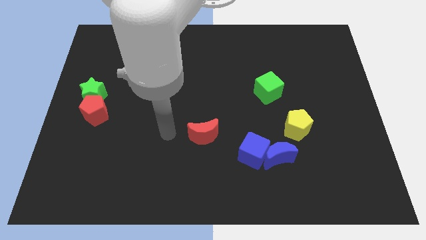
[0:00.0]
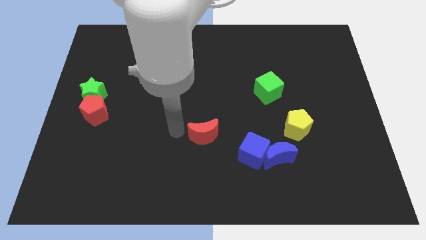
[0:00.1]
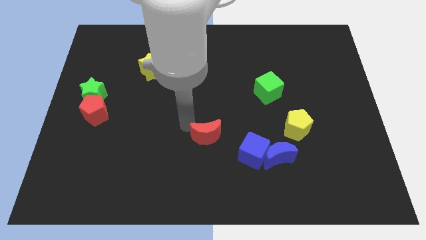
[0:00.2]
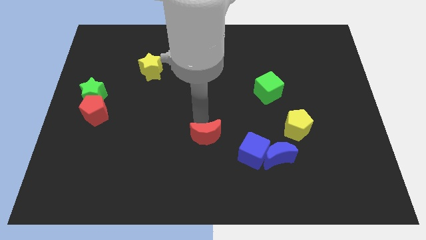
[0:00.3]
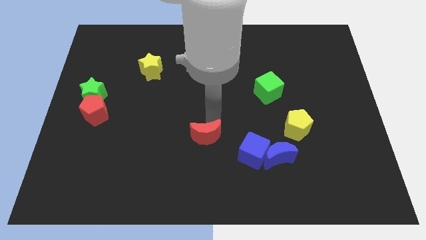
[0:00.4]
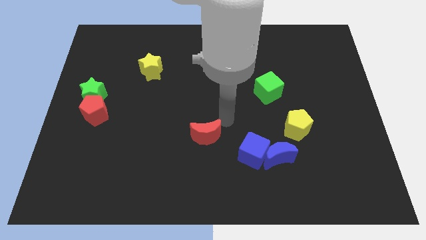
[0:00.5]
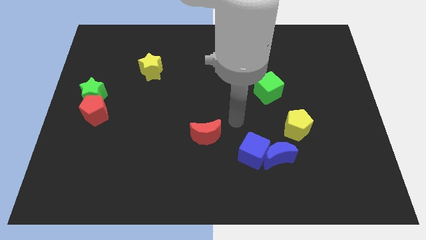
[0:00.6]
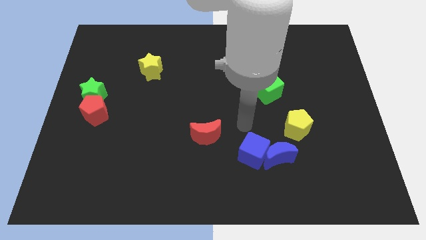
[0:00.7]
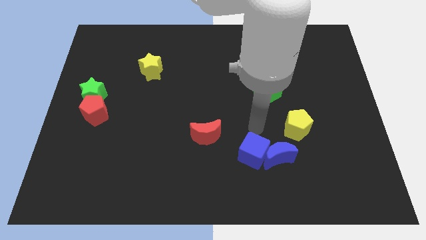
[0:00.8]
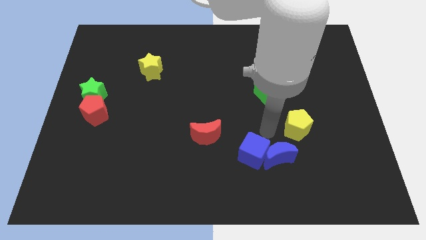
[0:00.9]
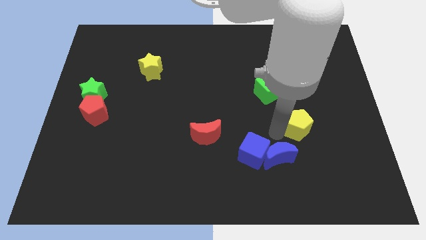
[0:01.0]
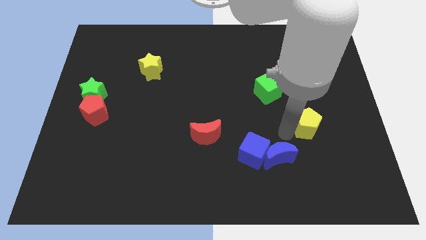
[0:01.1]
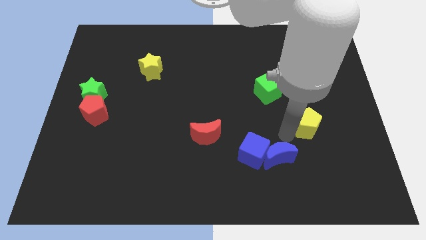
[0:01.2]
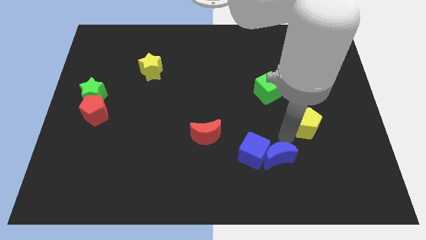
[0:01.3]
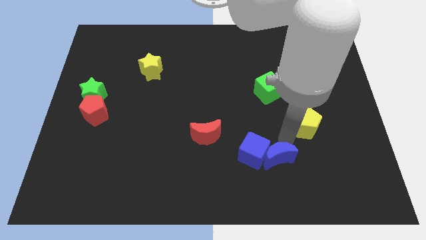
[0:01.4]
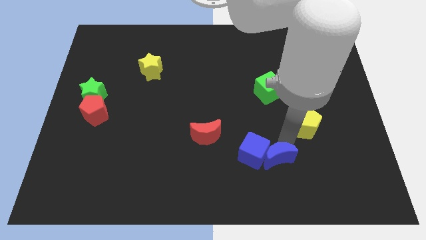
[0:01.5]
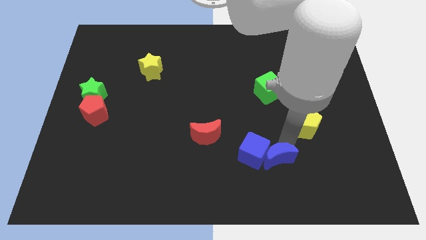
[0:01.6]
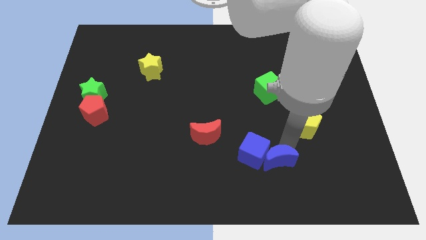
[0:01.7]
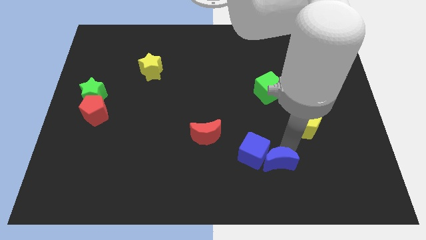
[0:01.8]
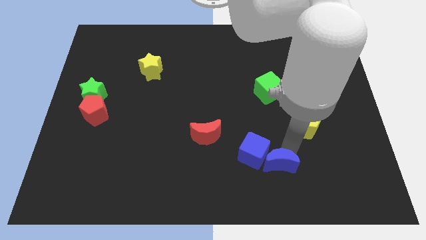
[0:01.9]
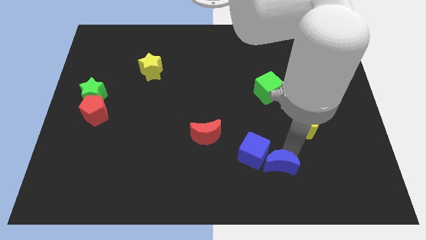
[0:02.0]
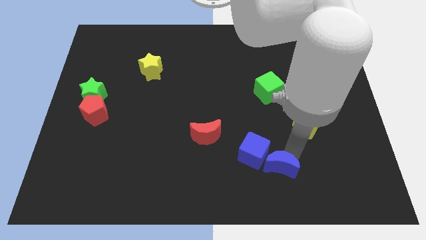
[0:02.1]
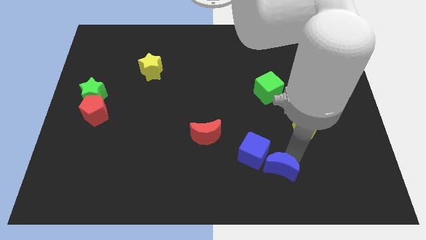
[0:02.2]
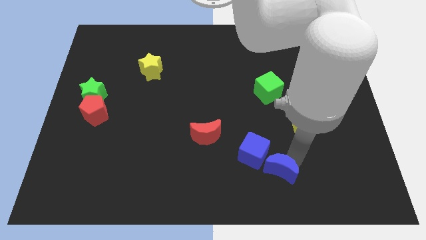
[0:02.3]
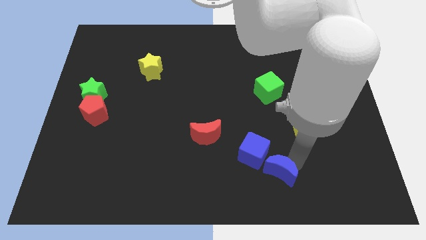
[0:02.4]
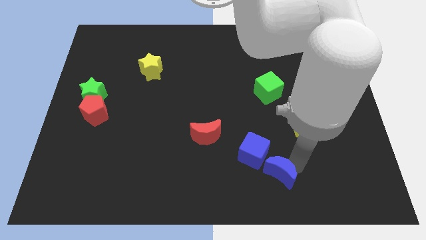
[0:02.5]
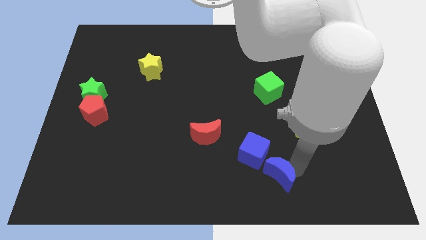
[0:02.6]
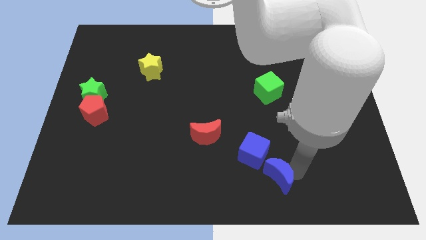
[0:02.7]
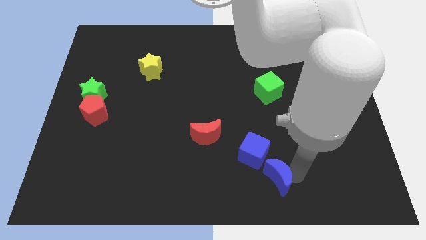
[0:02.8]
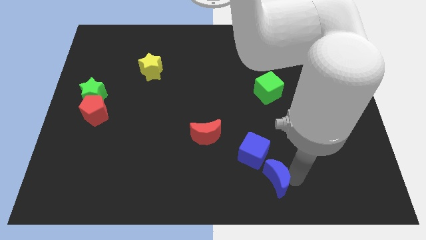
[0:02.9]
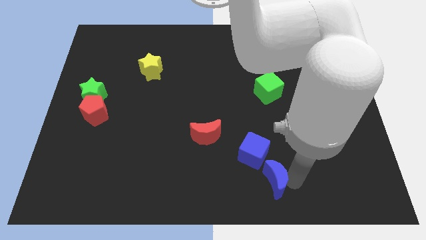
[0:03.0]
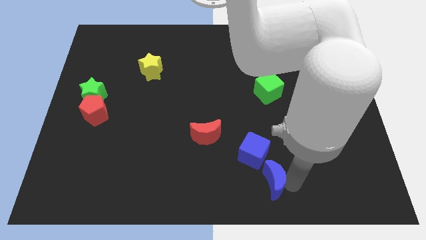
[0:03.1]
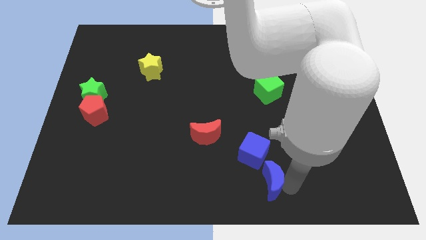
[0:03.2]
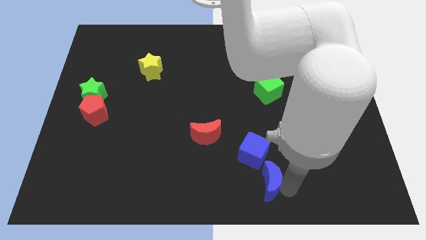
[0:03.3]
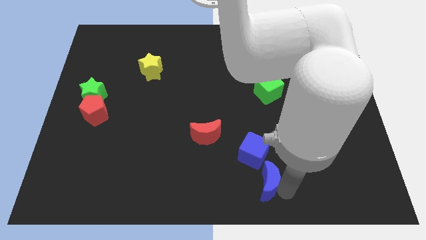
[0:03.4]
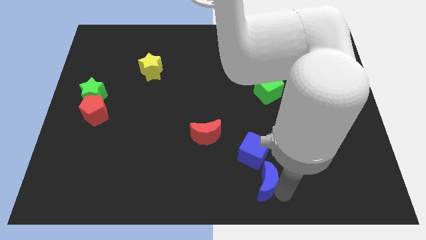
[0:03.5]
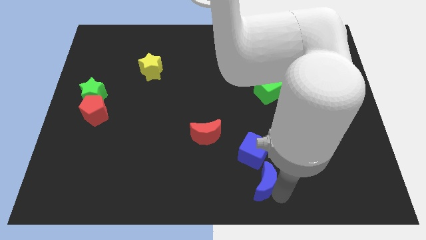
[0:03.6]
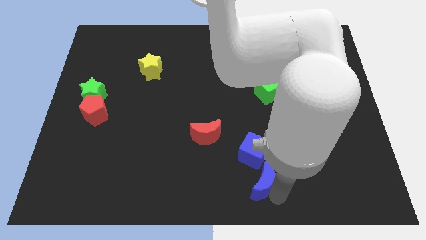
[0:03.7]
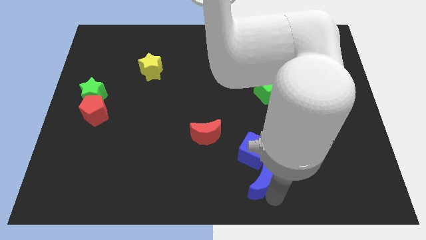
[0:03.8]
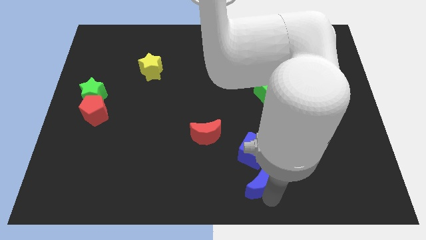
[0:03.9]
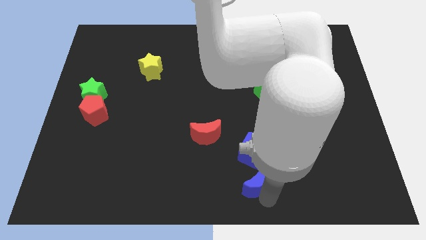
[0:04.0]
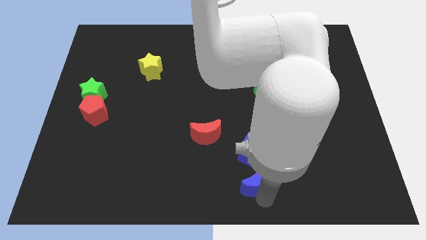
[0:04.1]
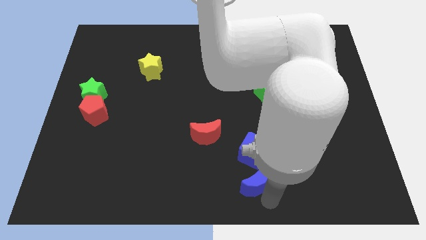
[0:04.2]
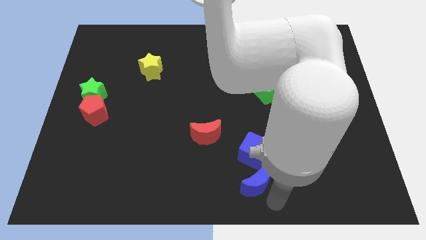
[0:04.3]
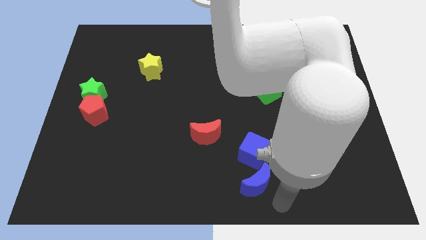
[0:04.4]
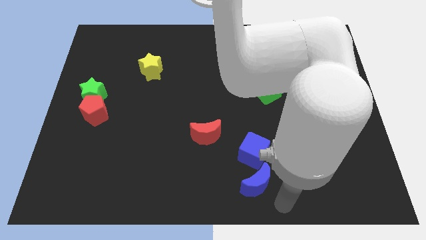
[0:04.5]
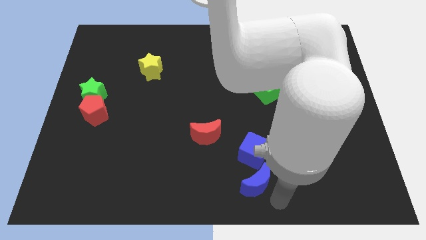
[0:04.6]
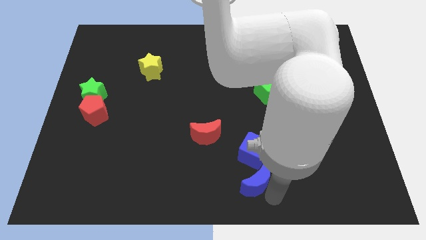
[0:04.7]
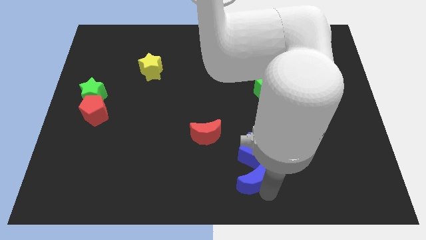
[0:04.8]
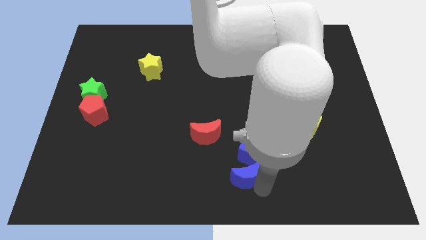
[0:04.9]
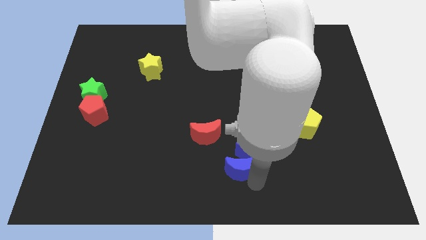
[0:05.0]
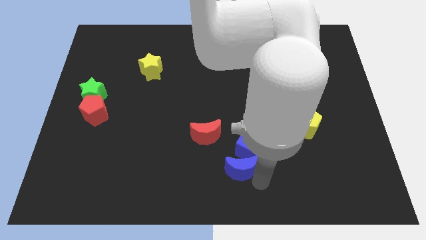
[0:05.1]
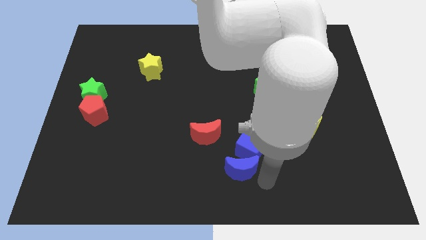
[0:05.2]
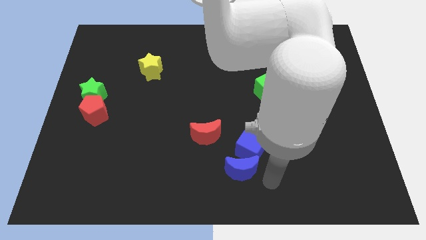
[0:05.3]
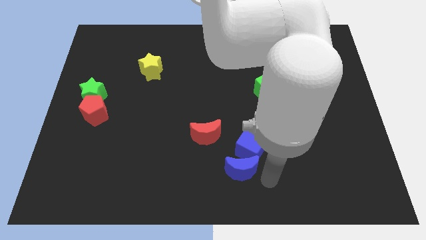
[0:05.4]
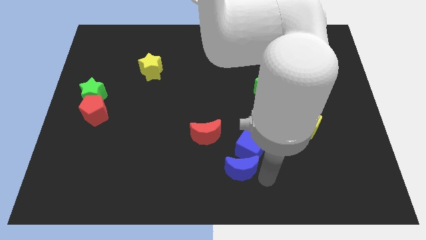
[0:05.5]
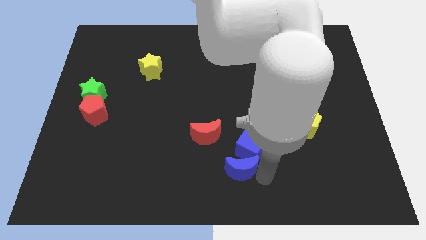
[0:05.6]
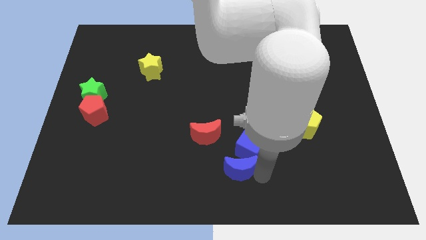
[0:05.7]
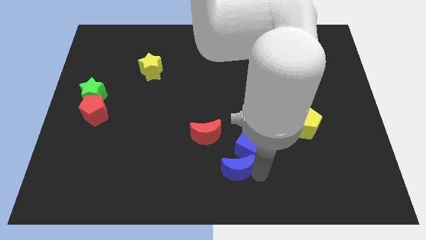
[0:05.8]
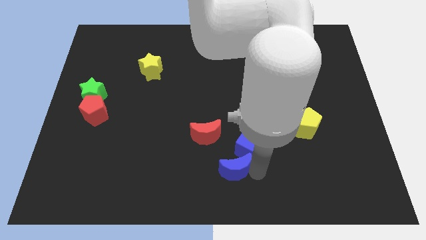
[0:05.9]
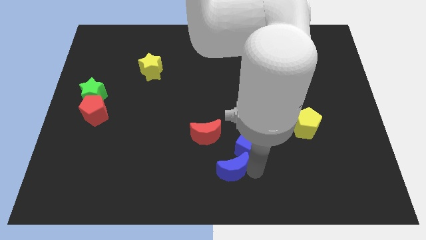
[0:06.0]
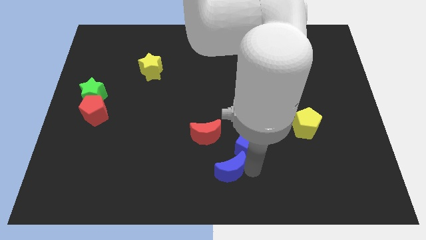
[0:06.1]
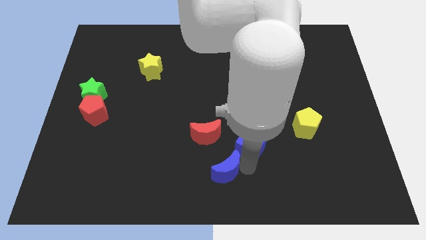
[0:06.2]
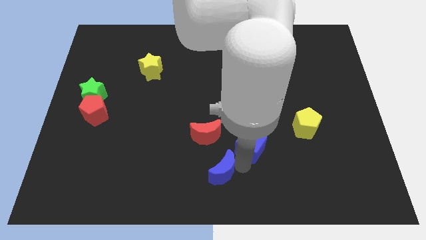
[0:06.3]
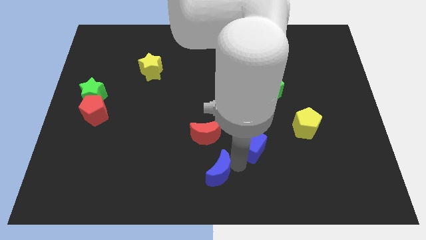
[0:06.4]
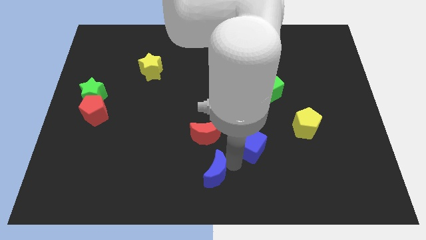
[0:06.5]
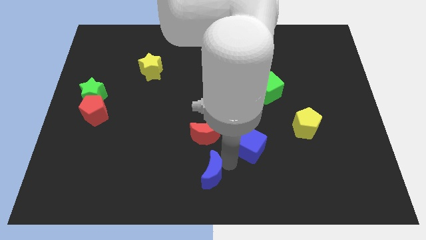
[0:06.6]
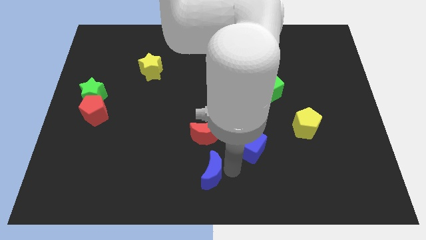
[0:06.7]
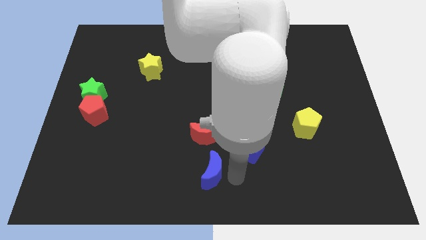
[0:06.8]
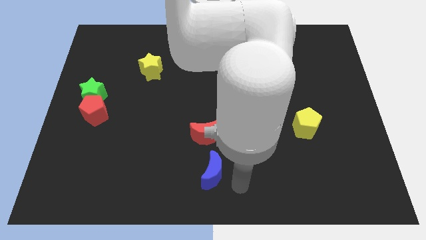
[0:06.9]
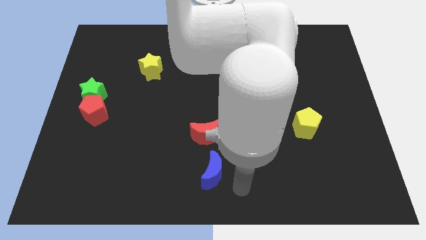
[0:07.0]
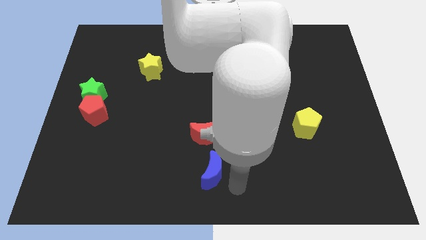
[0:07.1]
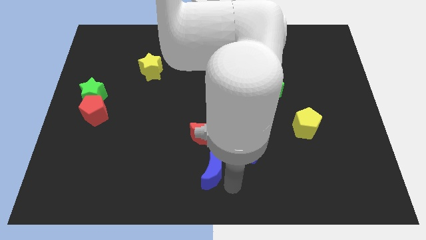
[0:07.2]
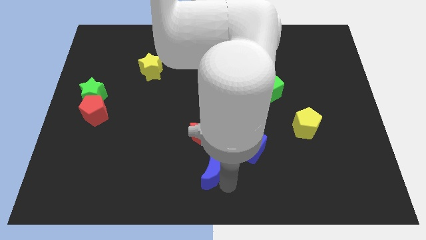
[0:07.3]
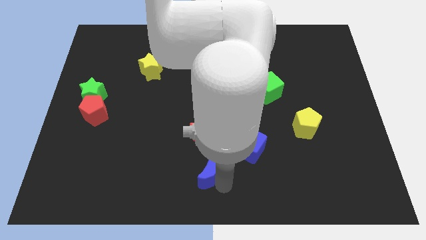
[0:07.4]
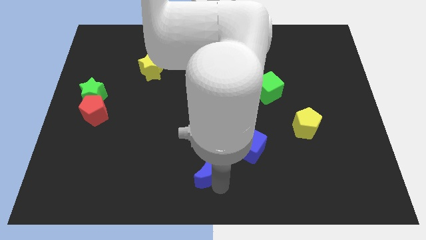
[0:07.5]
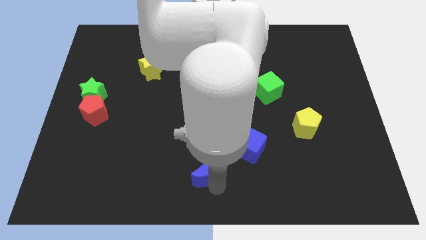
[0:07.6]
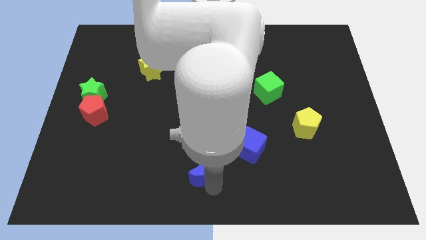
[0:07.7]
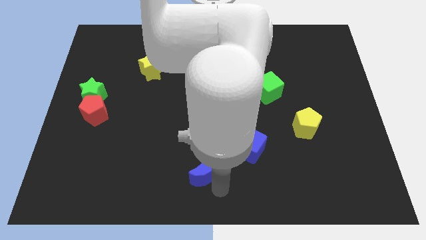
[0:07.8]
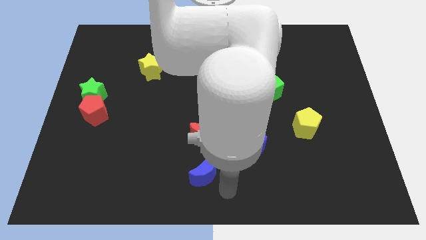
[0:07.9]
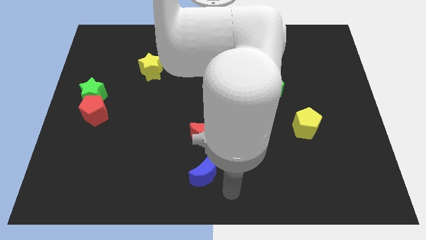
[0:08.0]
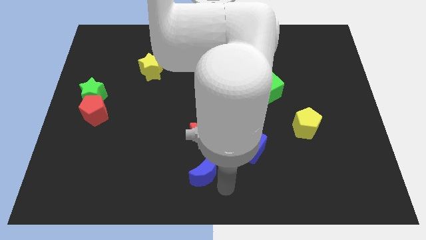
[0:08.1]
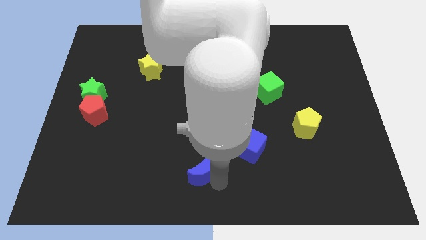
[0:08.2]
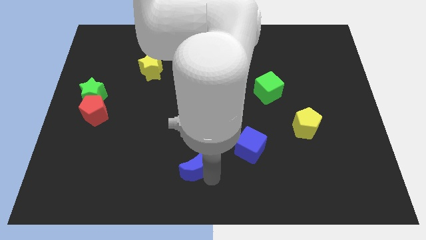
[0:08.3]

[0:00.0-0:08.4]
put the blue moon to the bottom left side of the red moon
